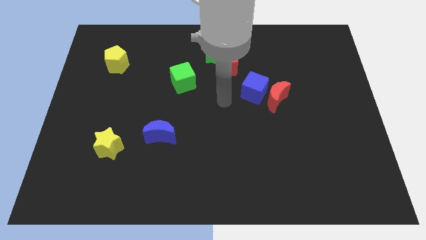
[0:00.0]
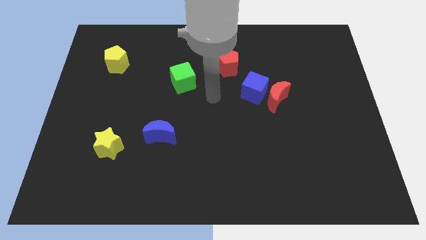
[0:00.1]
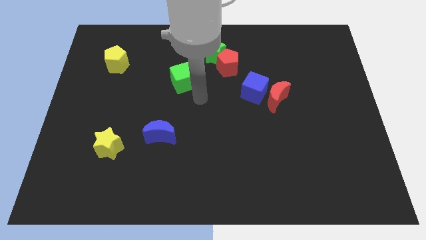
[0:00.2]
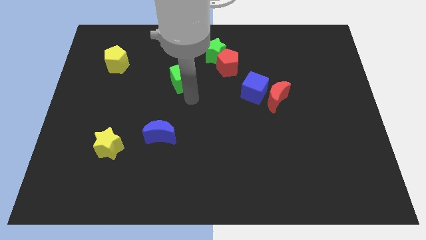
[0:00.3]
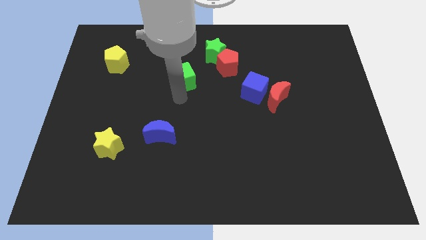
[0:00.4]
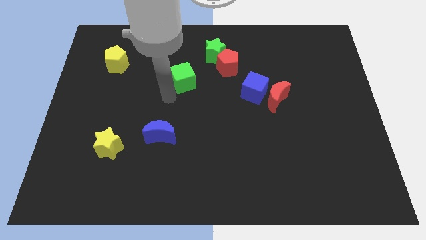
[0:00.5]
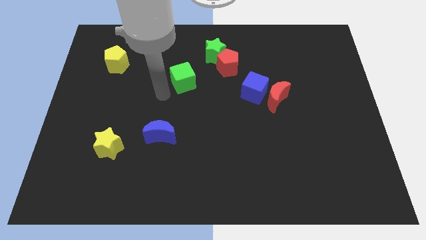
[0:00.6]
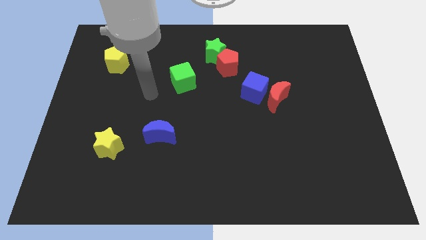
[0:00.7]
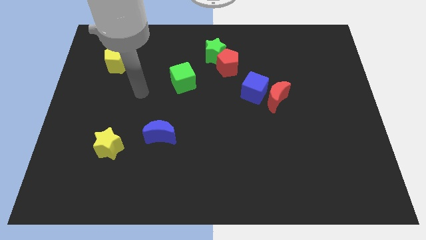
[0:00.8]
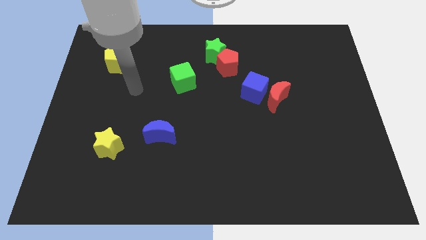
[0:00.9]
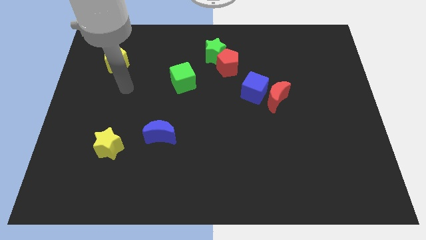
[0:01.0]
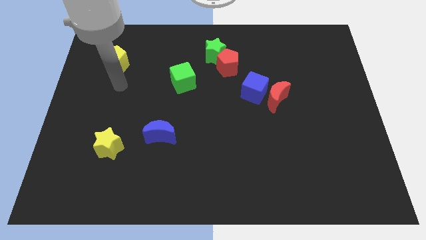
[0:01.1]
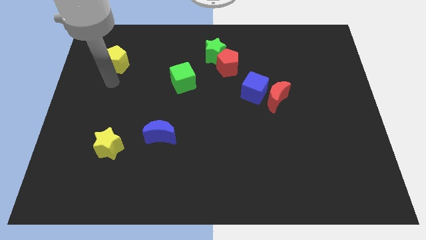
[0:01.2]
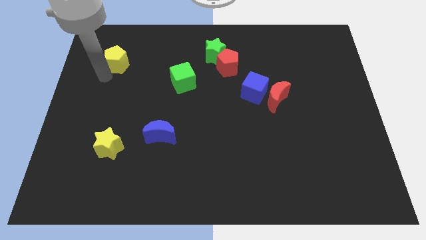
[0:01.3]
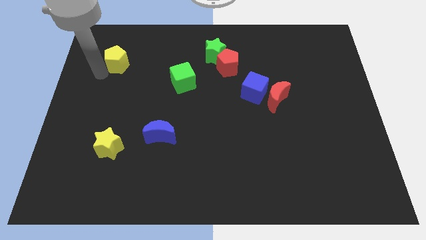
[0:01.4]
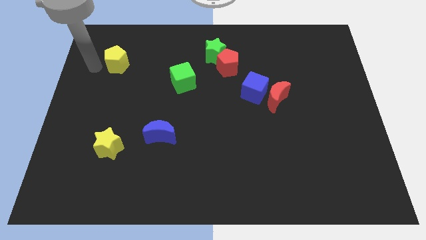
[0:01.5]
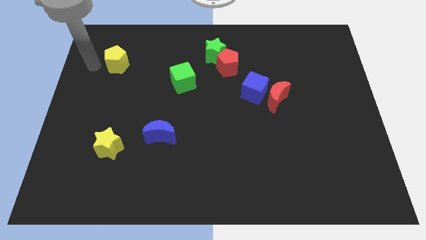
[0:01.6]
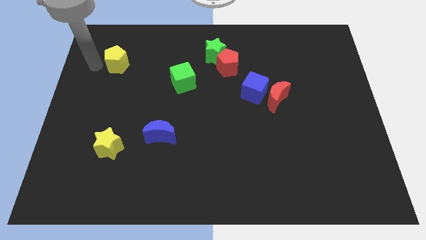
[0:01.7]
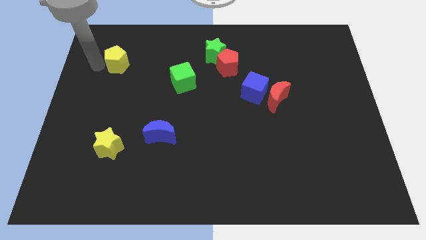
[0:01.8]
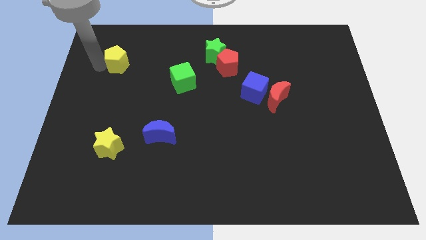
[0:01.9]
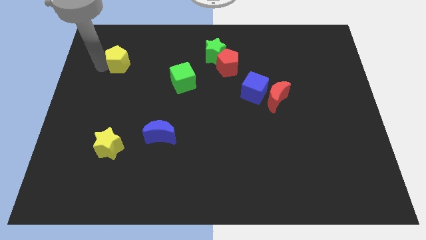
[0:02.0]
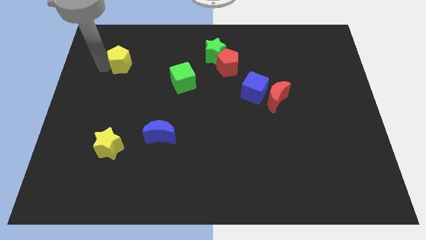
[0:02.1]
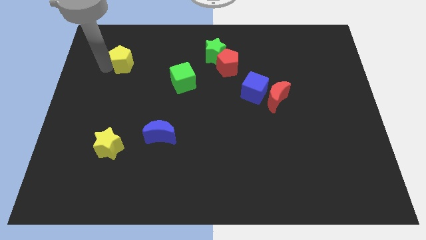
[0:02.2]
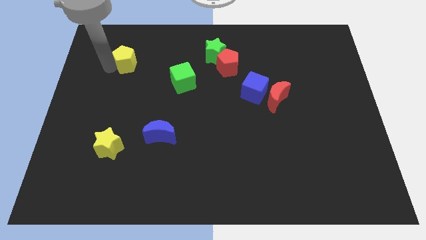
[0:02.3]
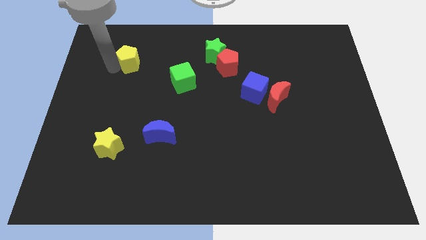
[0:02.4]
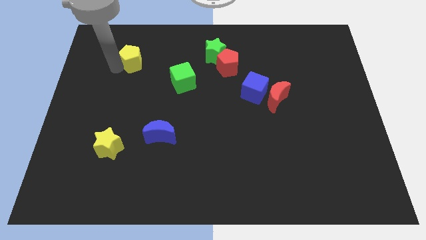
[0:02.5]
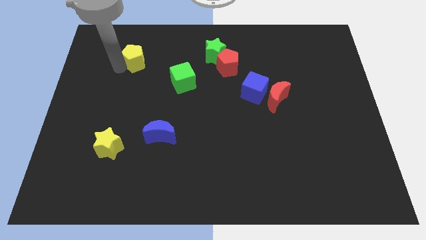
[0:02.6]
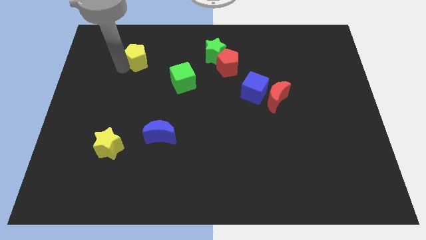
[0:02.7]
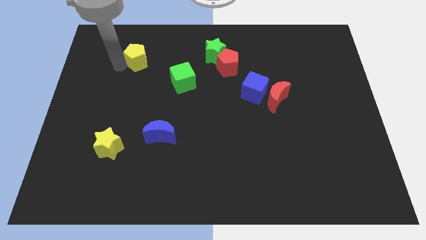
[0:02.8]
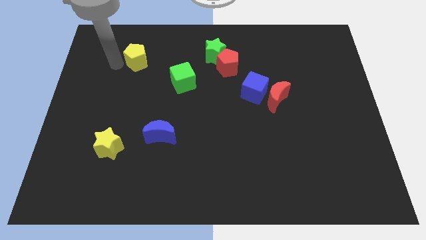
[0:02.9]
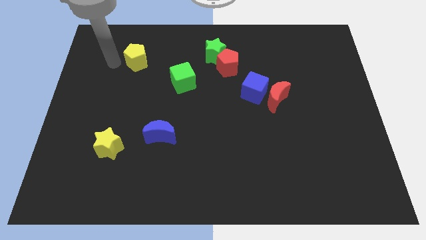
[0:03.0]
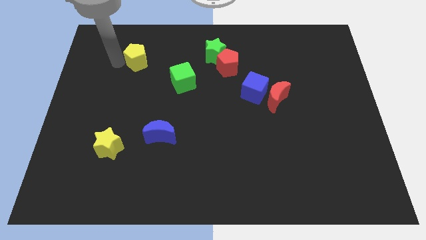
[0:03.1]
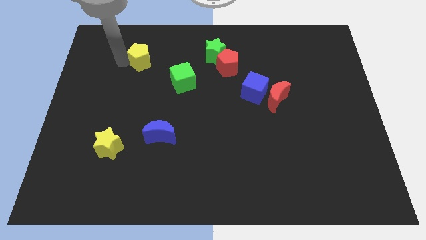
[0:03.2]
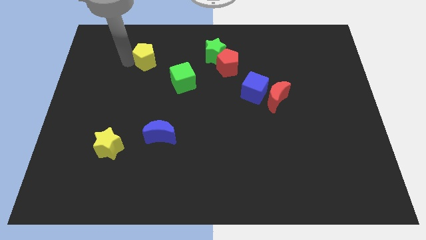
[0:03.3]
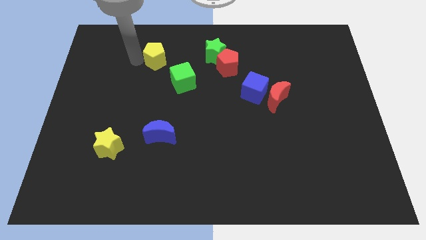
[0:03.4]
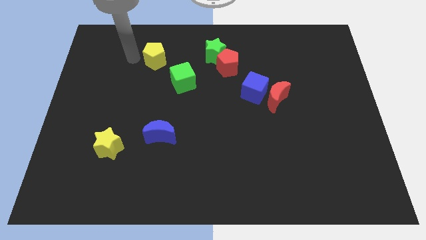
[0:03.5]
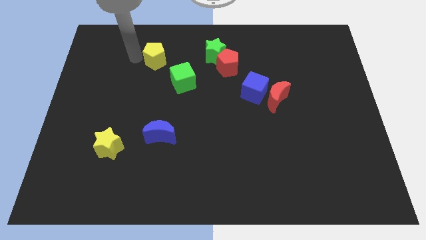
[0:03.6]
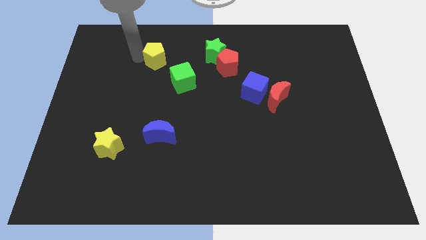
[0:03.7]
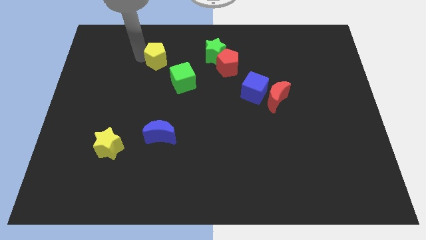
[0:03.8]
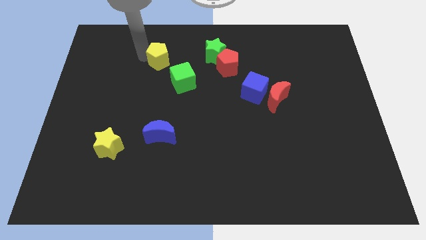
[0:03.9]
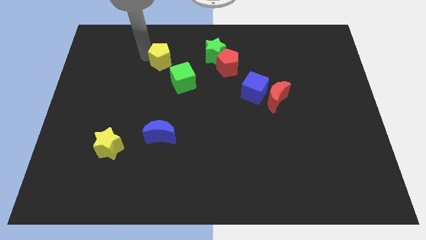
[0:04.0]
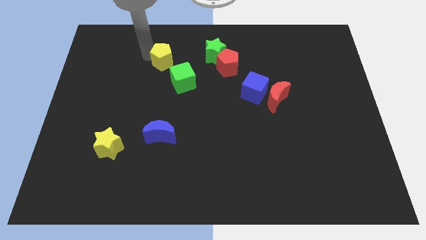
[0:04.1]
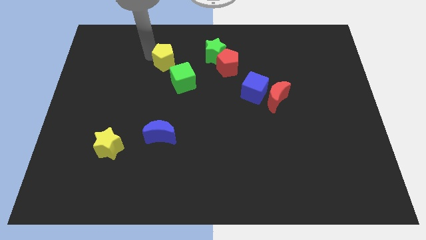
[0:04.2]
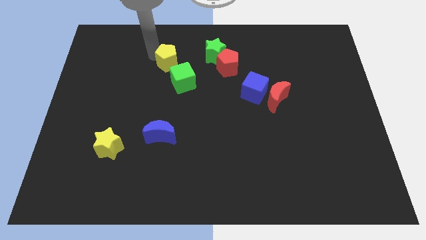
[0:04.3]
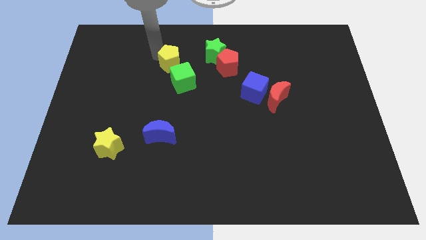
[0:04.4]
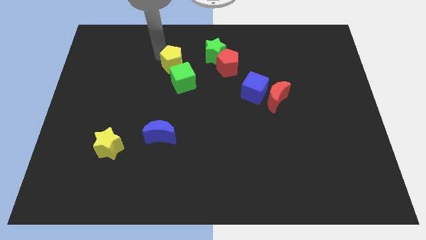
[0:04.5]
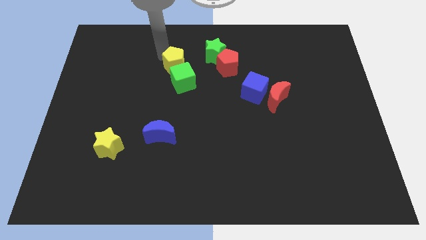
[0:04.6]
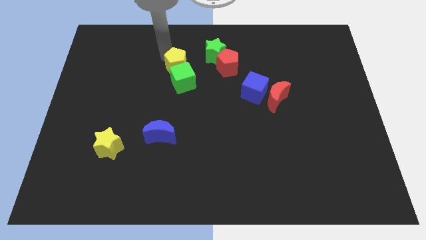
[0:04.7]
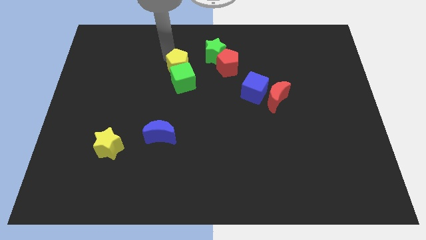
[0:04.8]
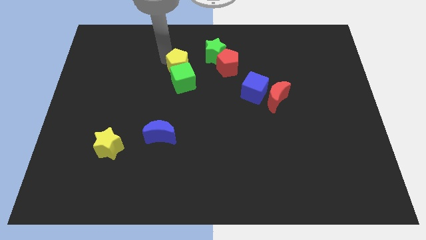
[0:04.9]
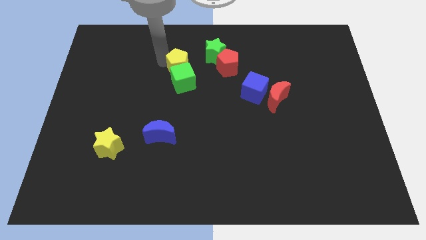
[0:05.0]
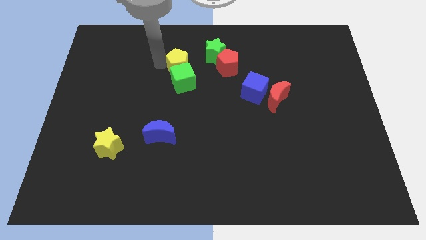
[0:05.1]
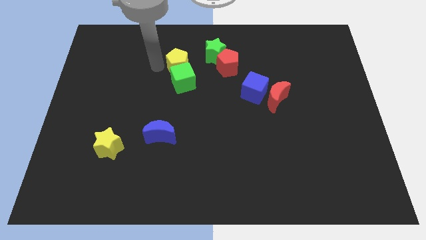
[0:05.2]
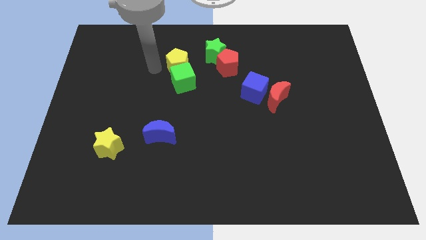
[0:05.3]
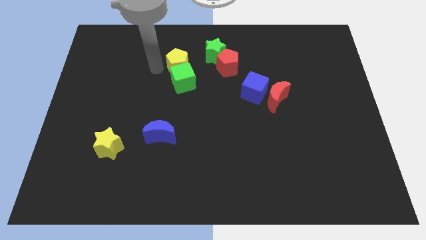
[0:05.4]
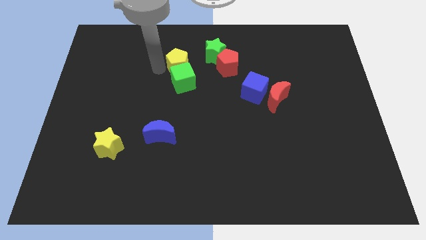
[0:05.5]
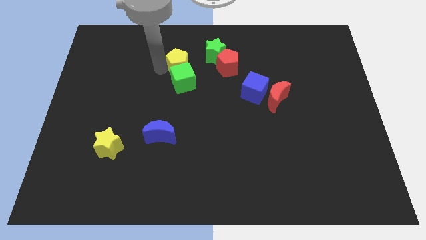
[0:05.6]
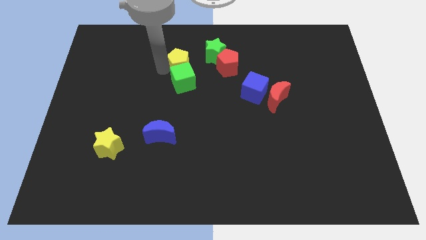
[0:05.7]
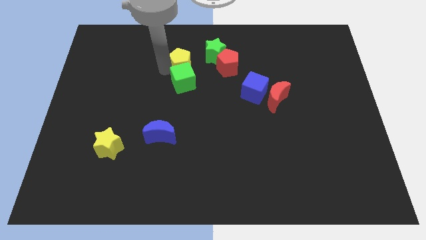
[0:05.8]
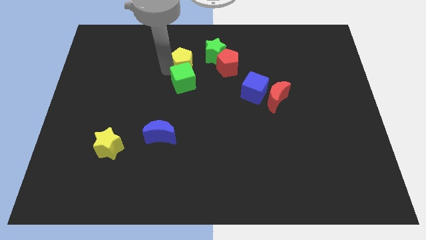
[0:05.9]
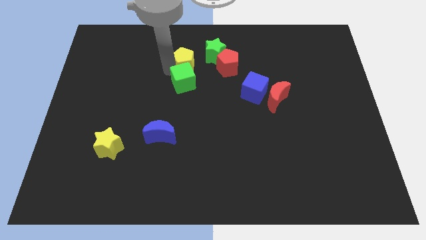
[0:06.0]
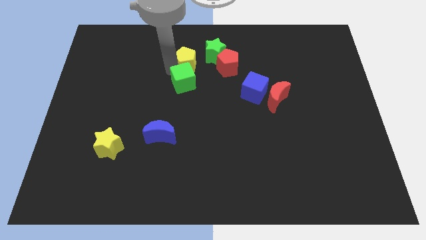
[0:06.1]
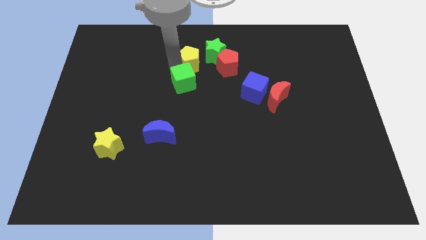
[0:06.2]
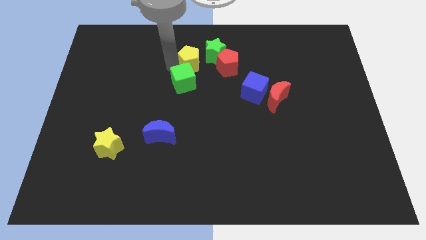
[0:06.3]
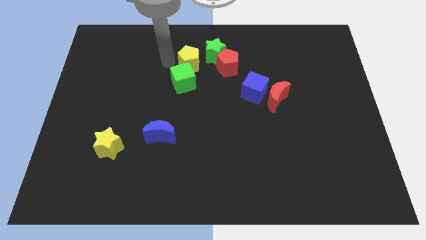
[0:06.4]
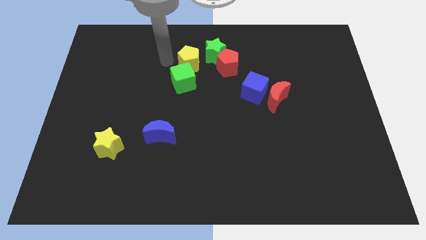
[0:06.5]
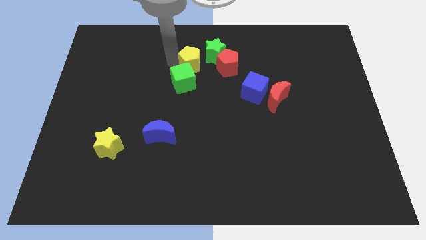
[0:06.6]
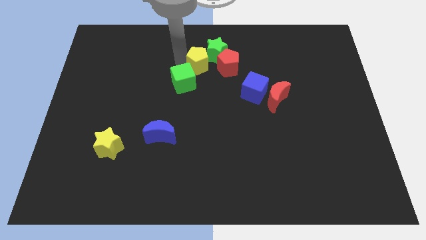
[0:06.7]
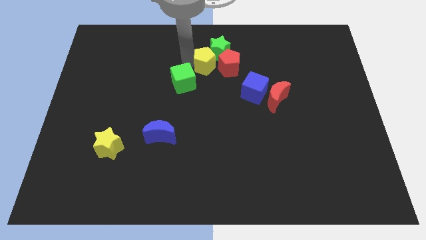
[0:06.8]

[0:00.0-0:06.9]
move the yellow pentagon close to the red pentagon

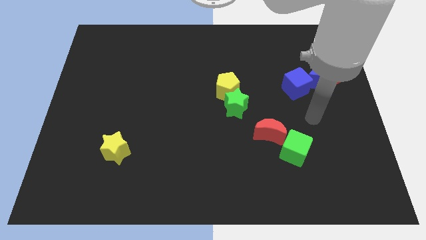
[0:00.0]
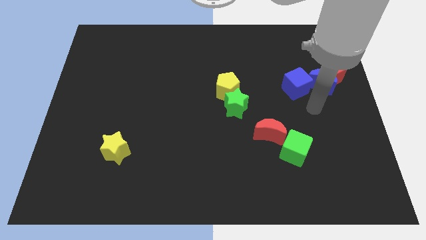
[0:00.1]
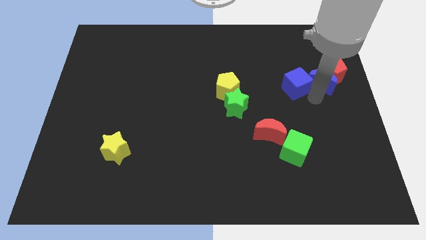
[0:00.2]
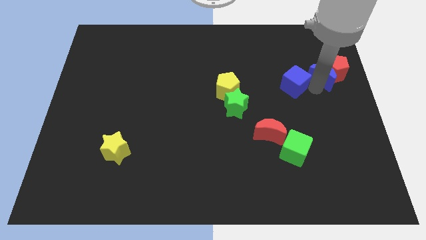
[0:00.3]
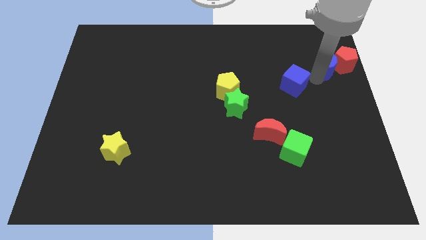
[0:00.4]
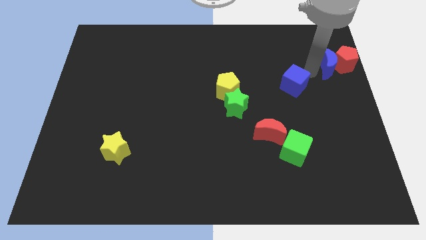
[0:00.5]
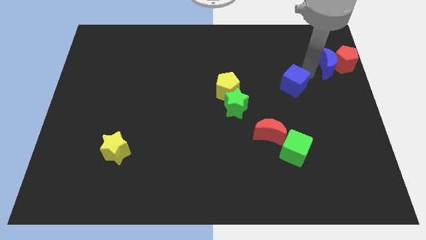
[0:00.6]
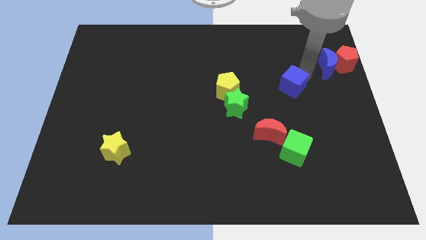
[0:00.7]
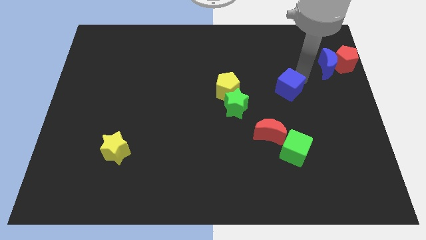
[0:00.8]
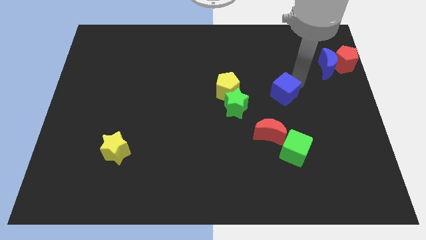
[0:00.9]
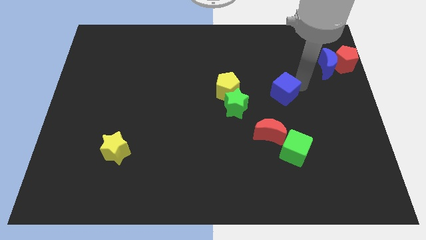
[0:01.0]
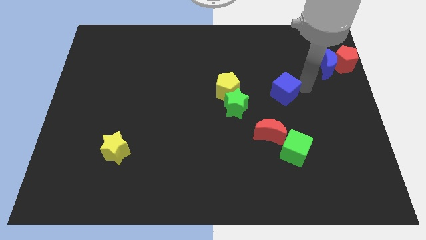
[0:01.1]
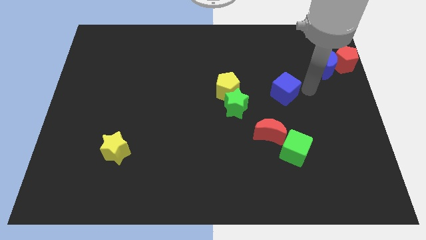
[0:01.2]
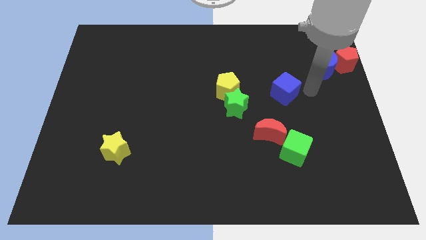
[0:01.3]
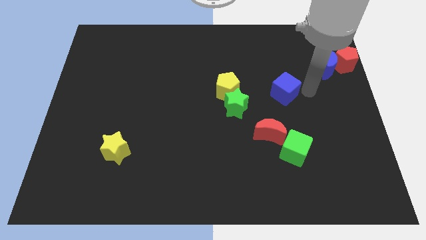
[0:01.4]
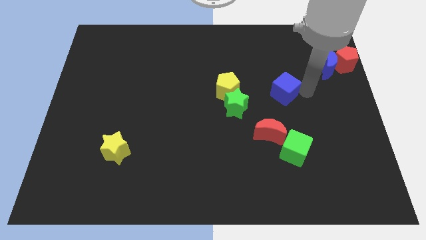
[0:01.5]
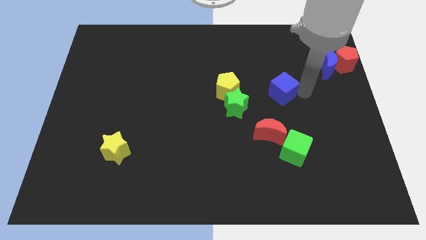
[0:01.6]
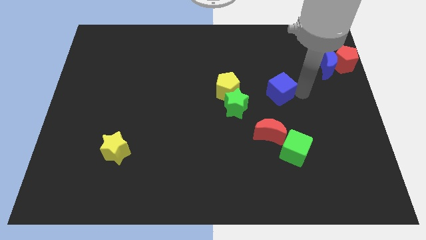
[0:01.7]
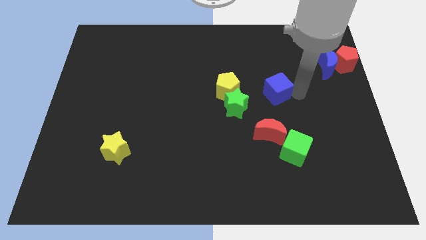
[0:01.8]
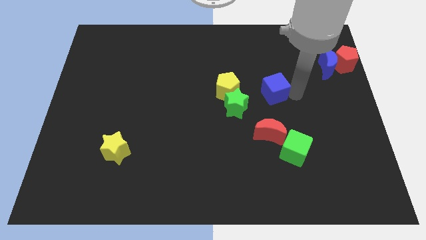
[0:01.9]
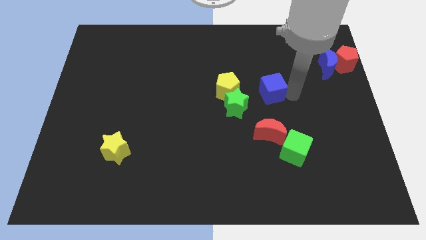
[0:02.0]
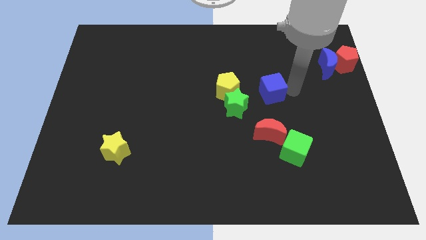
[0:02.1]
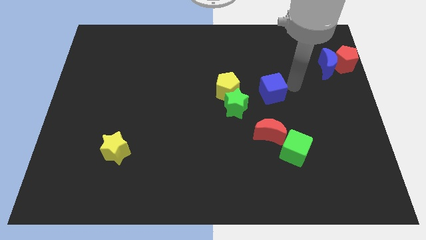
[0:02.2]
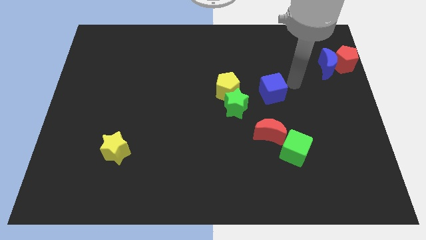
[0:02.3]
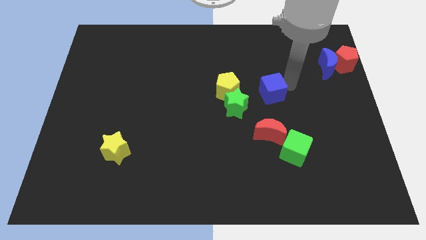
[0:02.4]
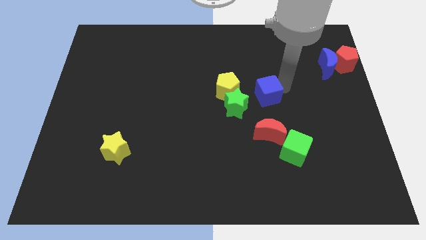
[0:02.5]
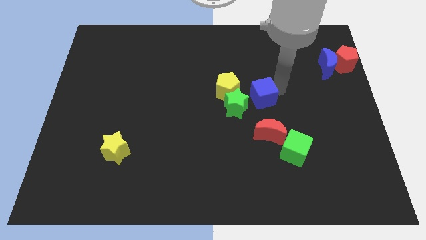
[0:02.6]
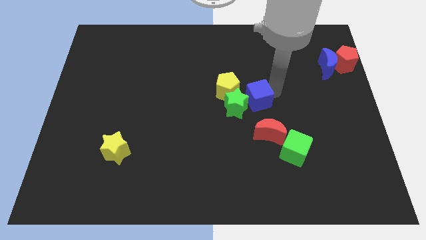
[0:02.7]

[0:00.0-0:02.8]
put the blue cube towards the green star
